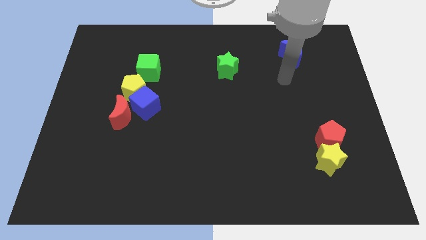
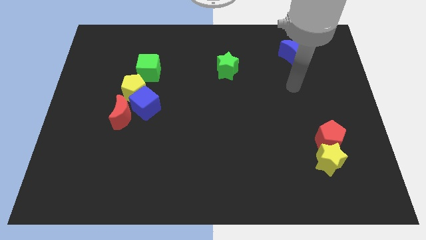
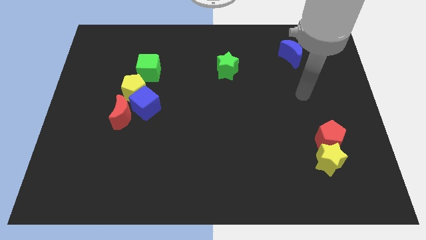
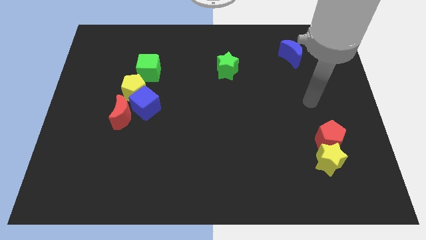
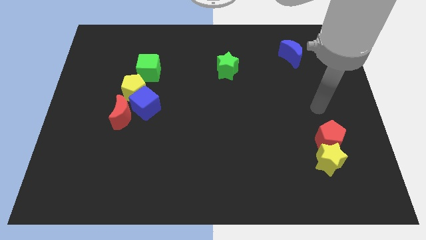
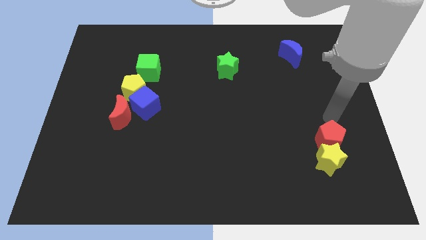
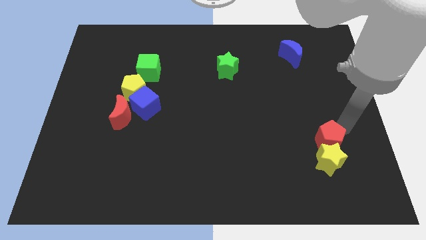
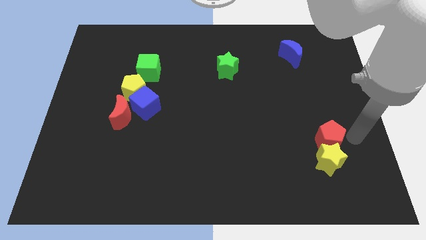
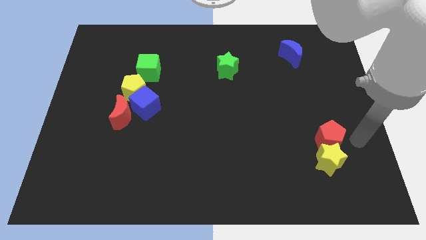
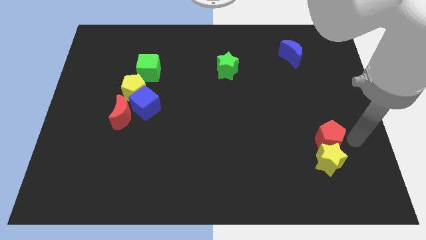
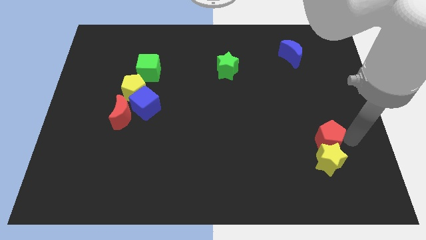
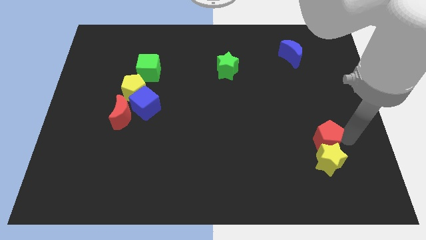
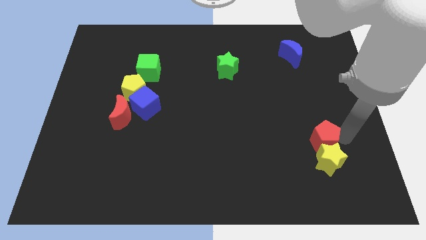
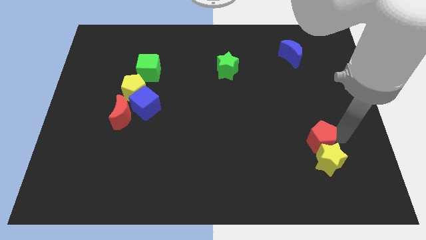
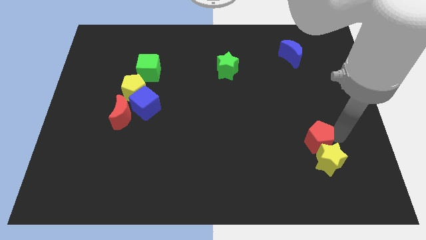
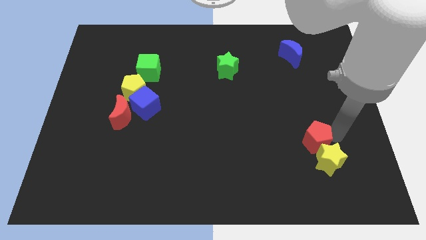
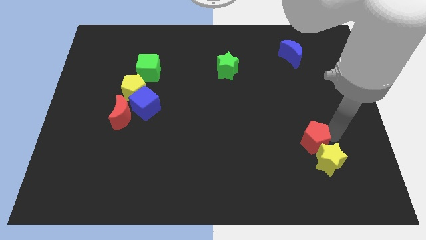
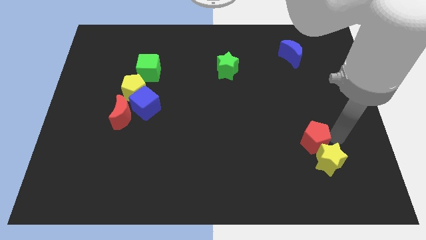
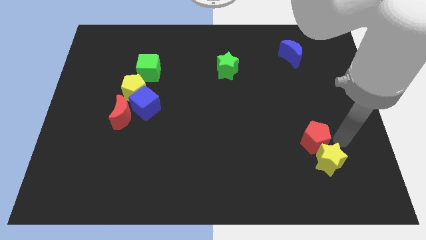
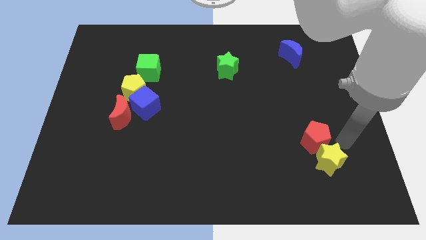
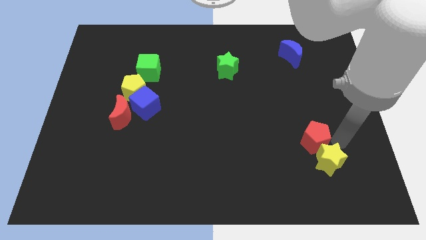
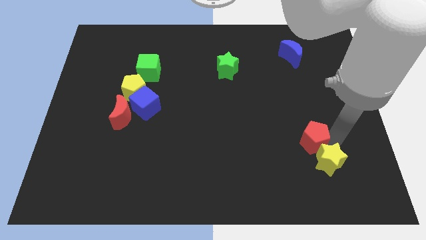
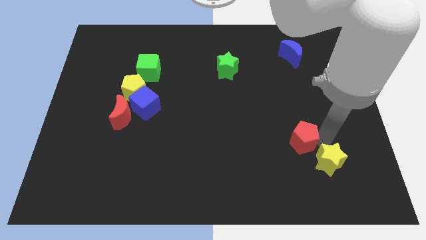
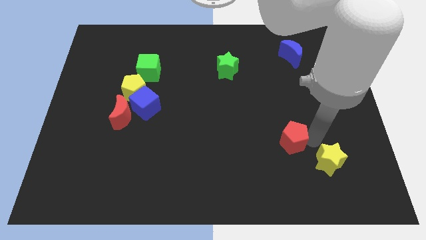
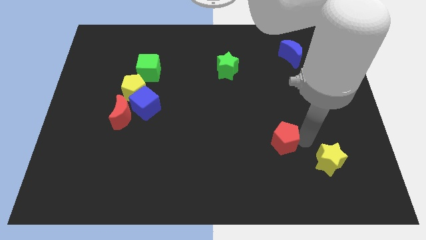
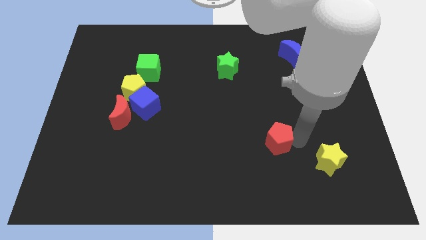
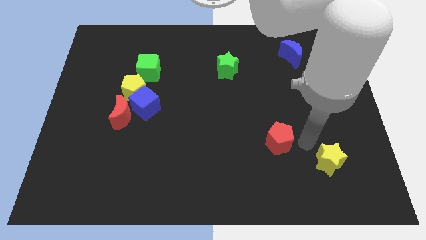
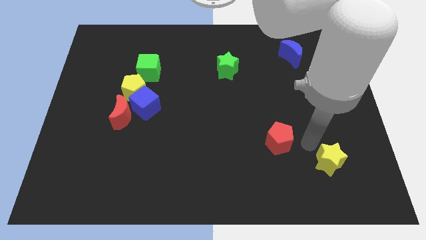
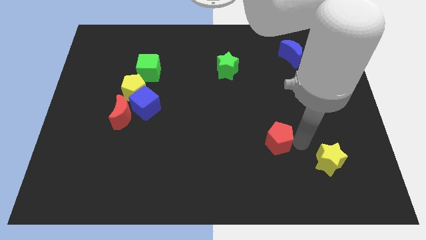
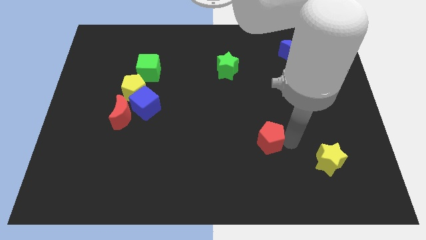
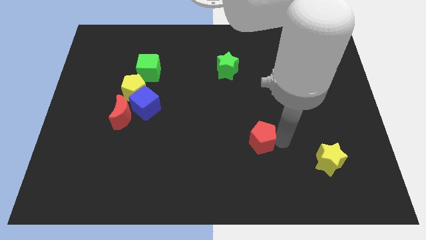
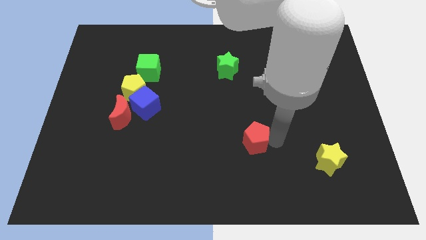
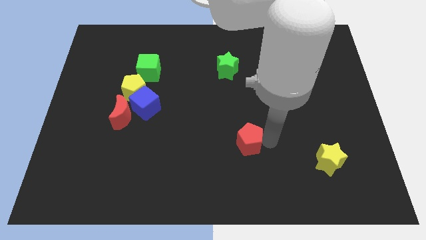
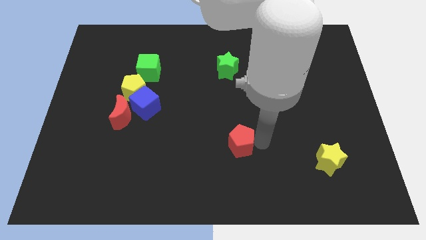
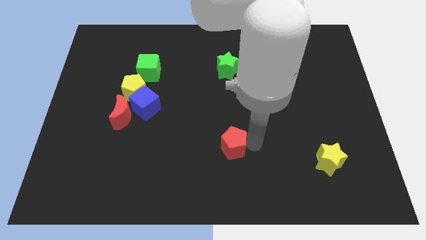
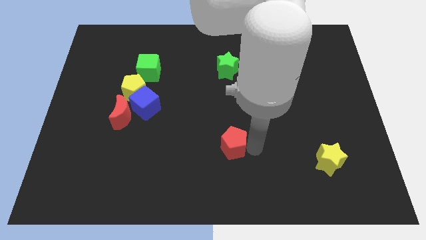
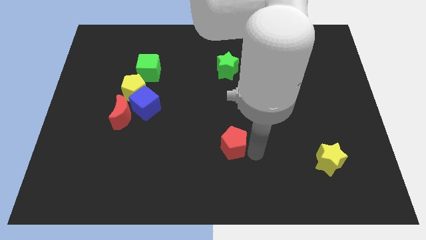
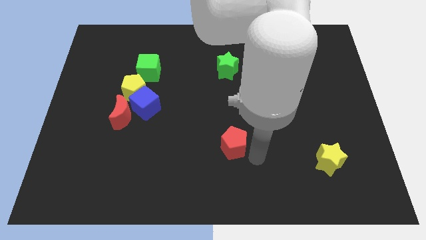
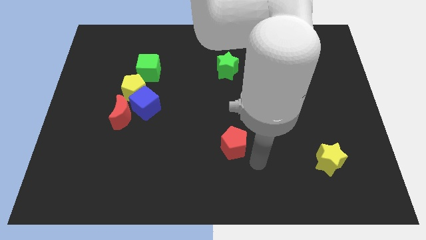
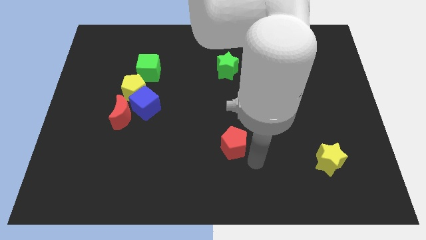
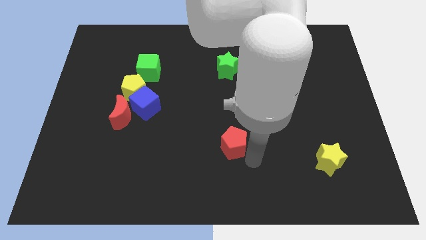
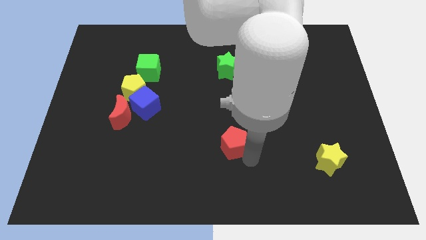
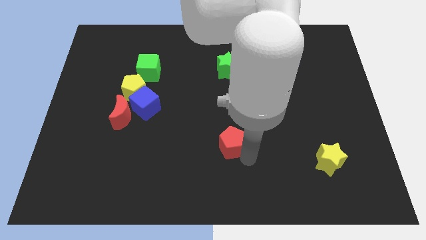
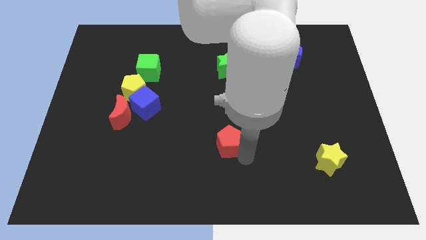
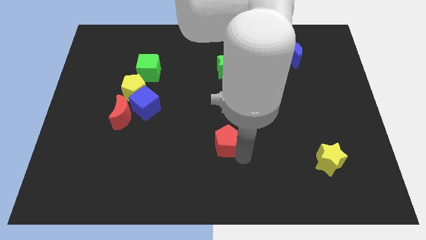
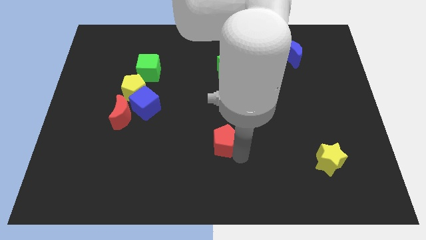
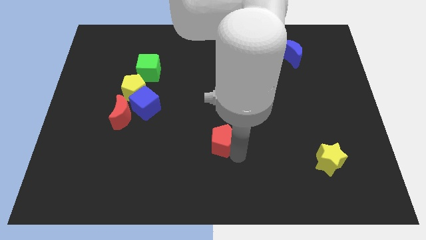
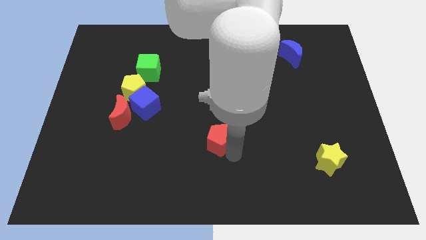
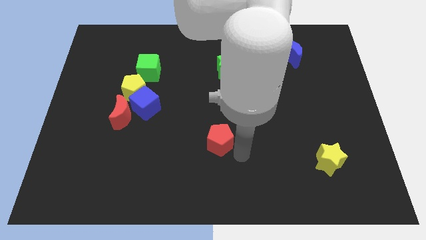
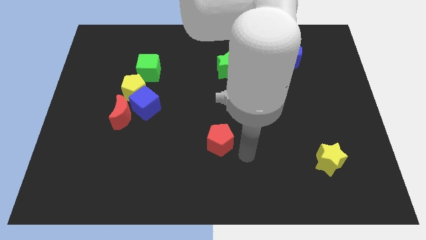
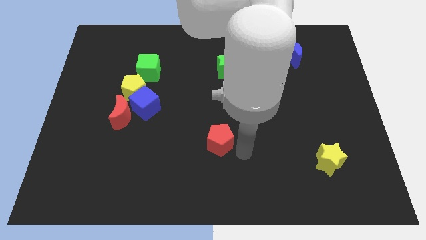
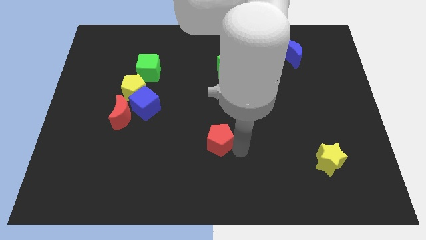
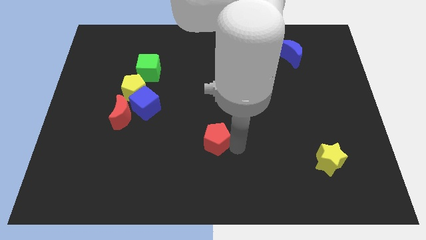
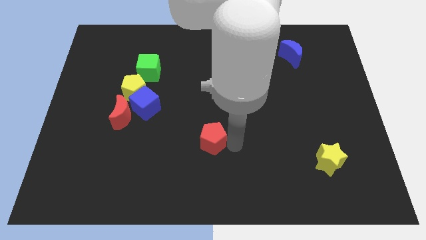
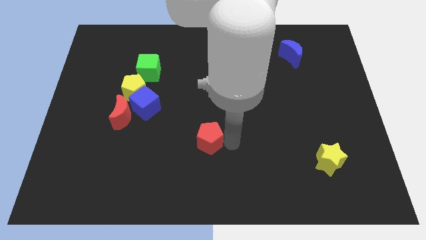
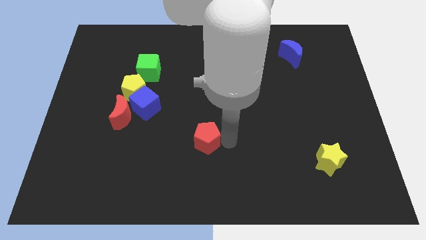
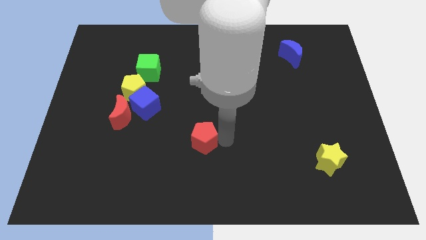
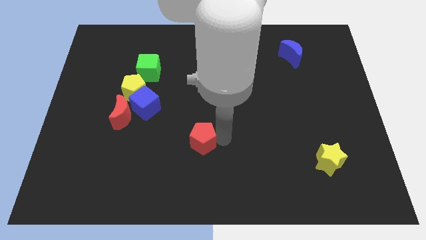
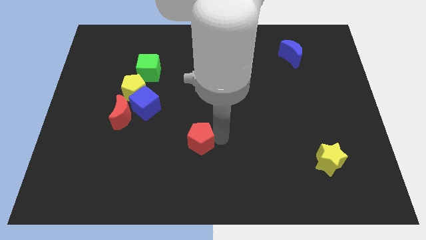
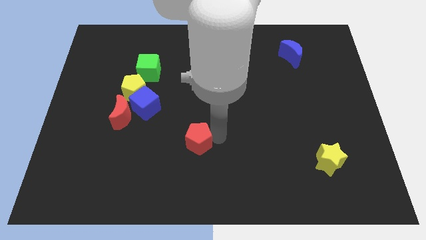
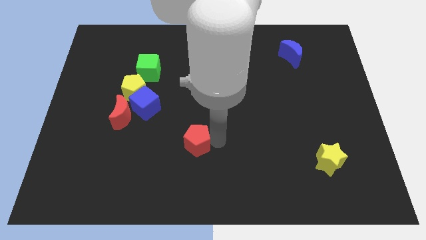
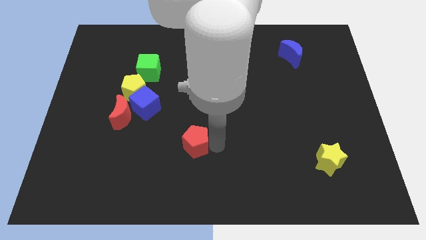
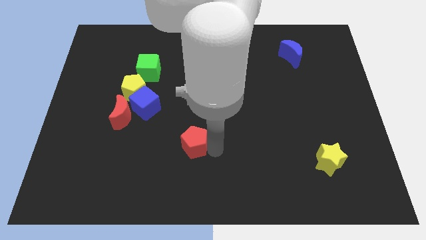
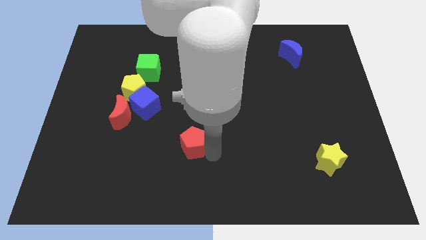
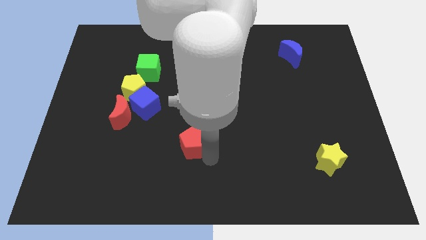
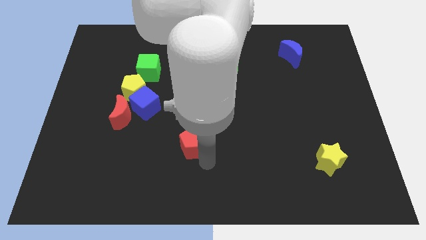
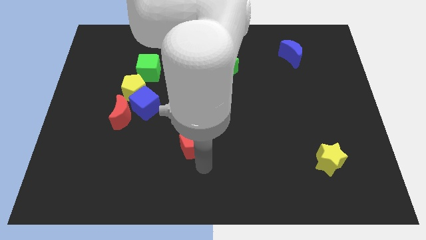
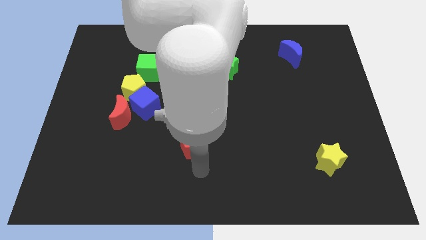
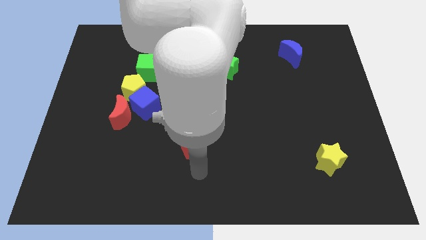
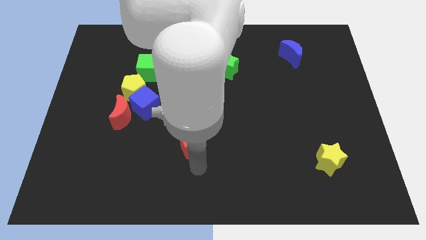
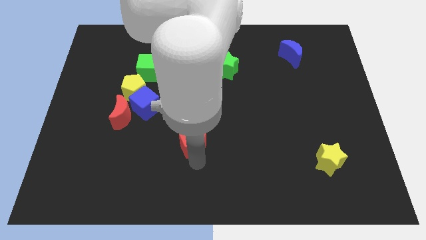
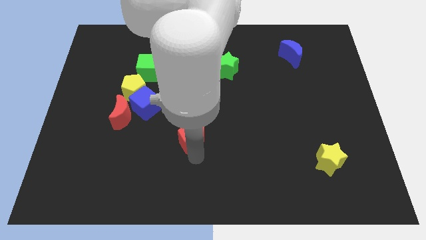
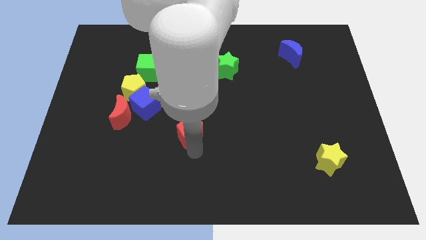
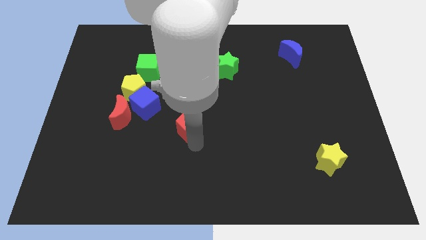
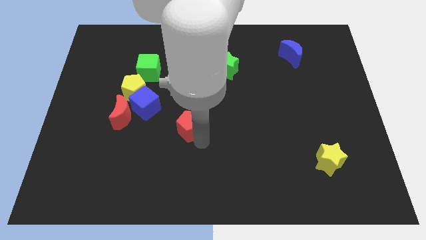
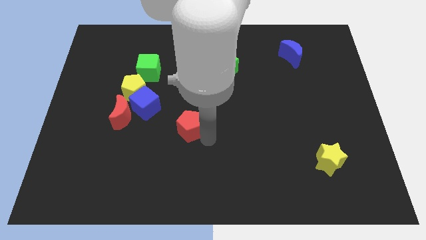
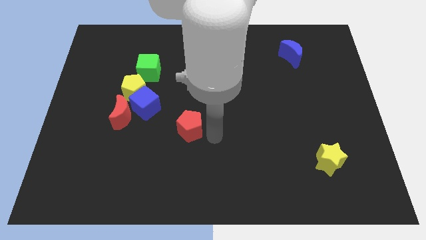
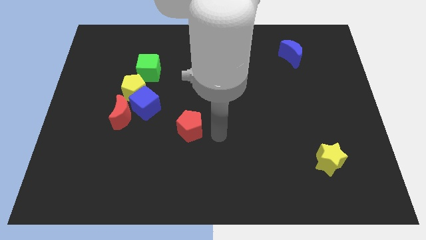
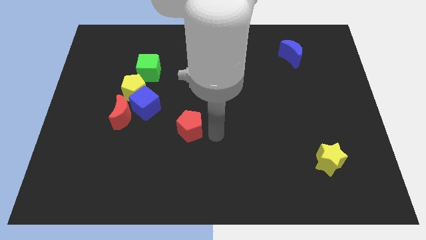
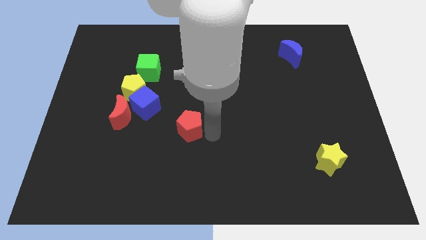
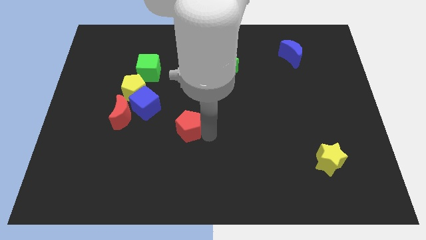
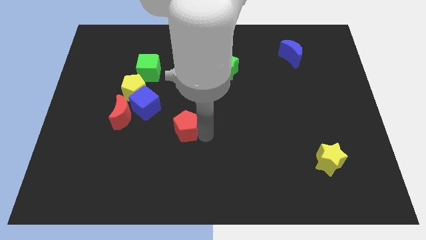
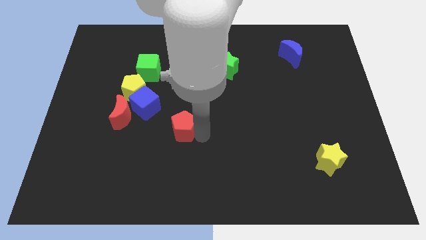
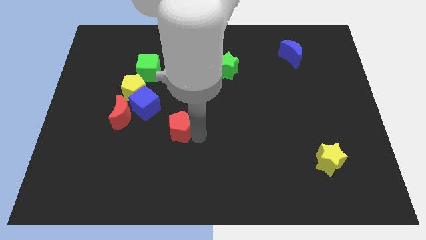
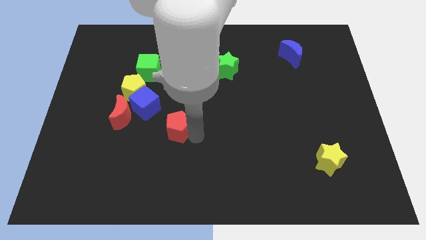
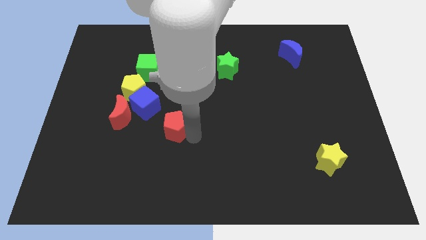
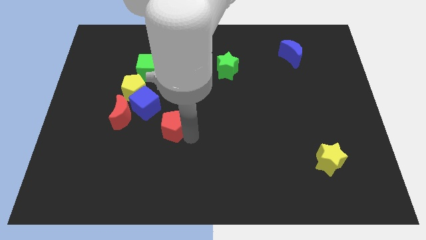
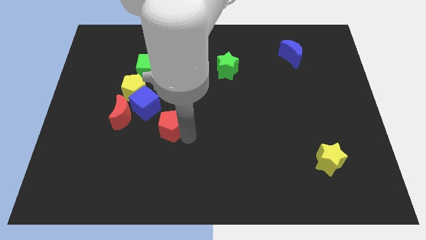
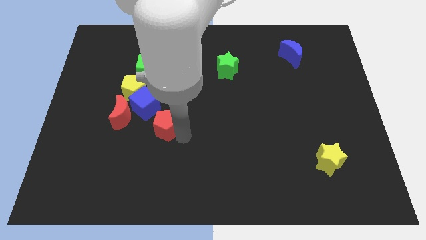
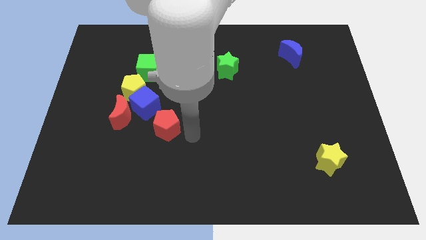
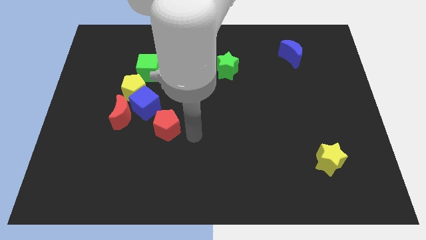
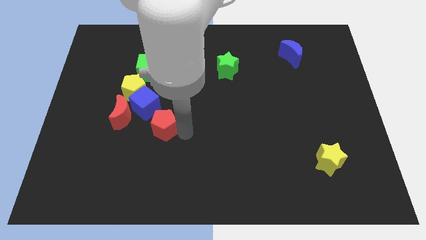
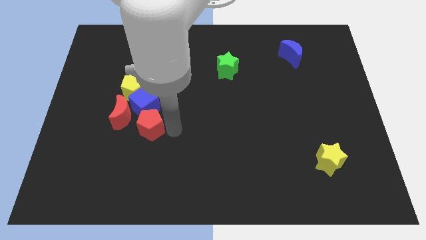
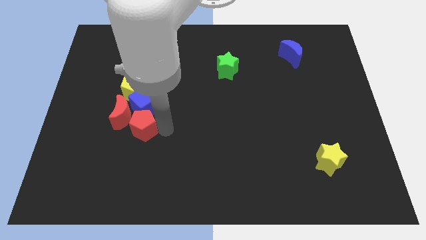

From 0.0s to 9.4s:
move the red pentagon to the red moon
